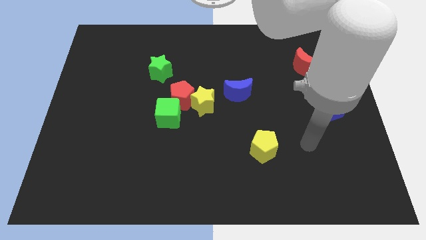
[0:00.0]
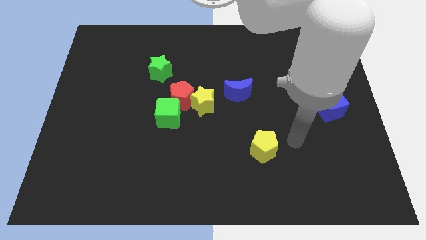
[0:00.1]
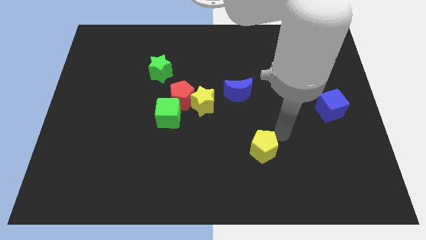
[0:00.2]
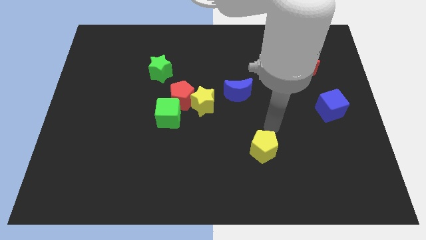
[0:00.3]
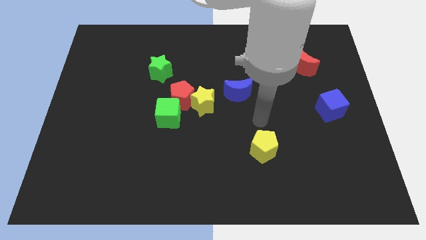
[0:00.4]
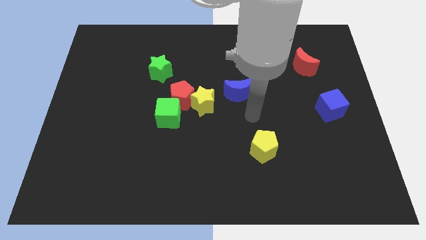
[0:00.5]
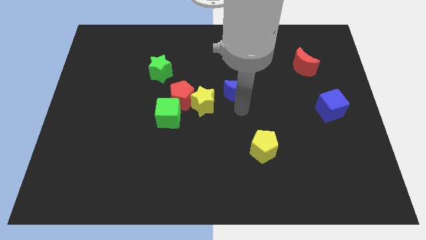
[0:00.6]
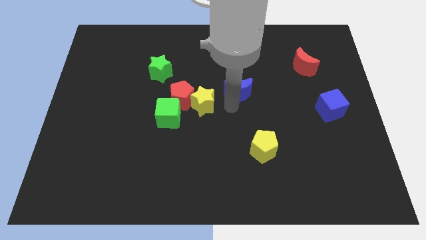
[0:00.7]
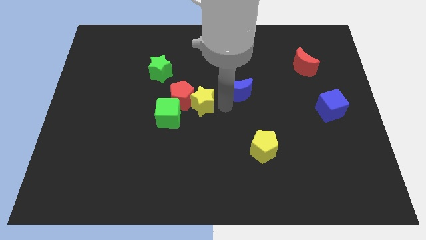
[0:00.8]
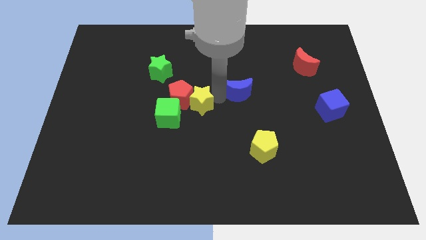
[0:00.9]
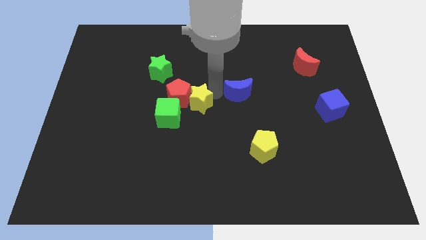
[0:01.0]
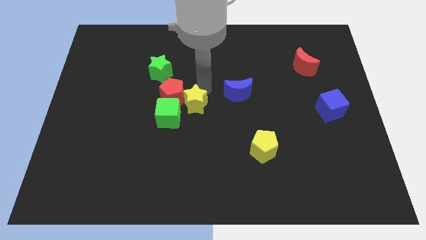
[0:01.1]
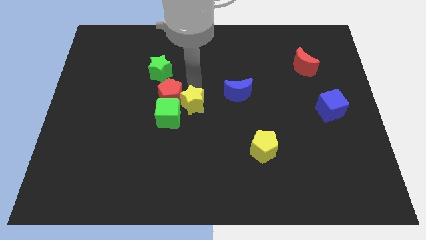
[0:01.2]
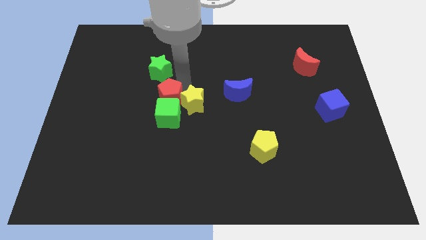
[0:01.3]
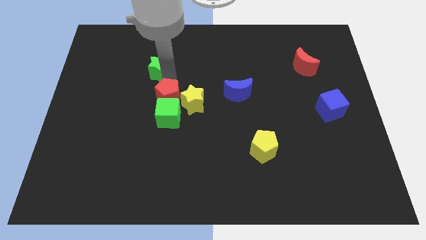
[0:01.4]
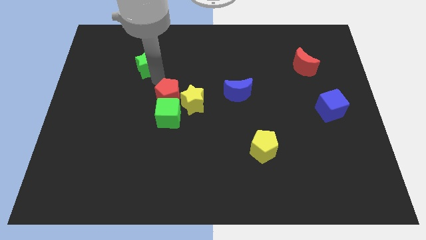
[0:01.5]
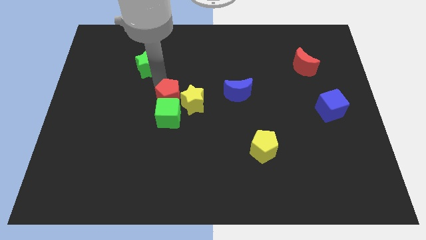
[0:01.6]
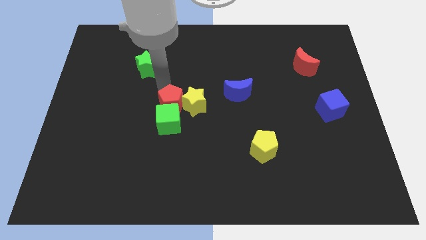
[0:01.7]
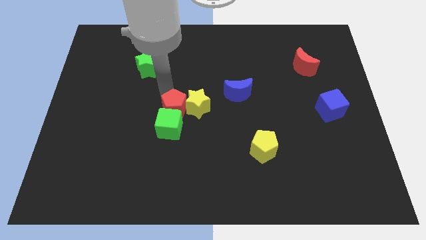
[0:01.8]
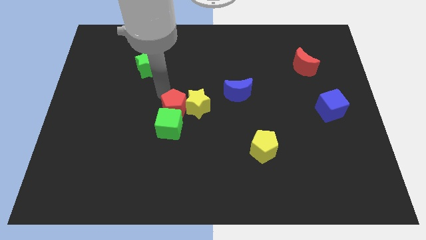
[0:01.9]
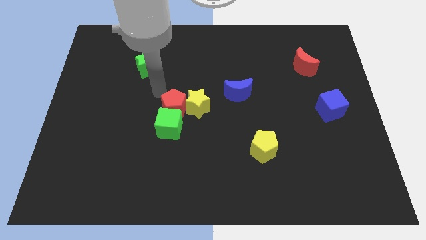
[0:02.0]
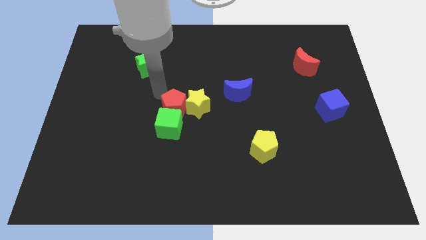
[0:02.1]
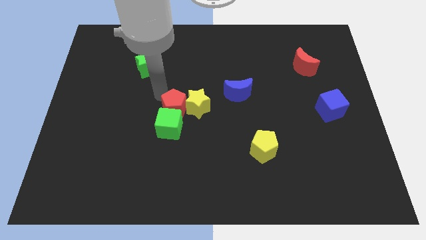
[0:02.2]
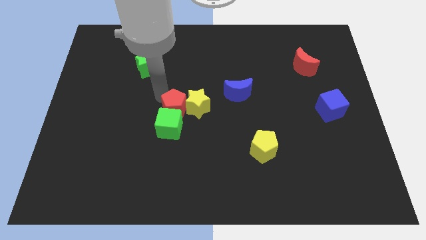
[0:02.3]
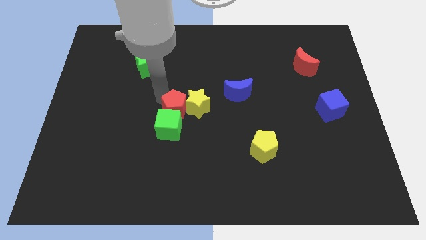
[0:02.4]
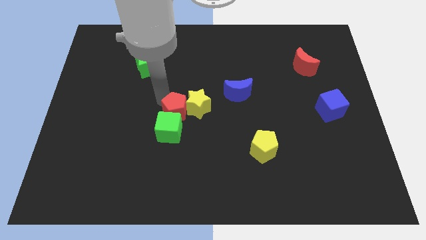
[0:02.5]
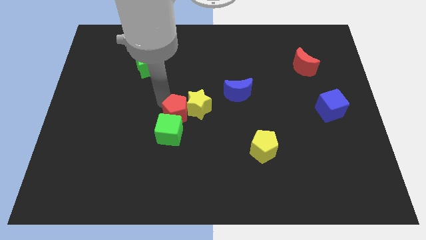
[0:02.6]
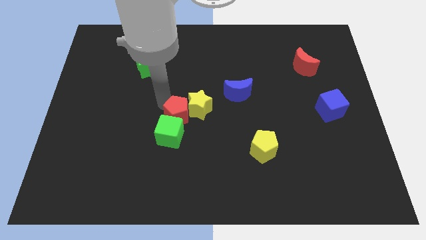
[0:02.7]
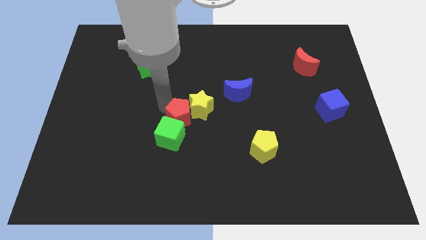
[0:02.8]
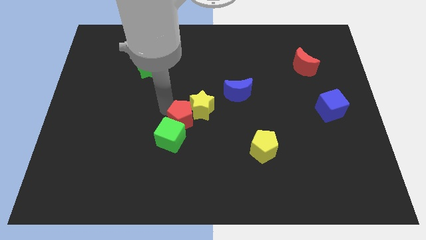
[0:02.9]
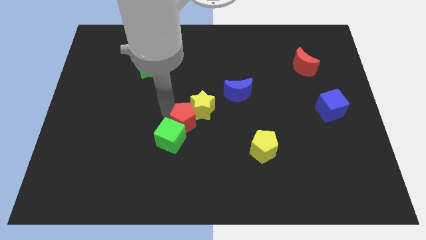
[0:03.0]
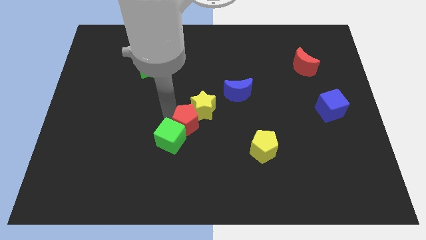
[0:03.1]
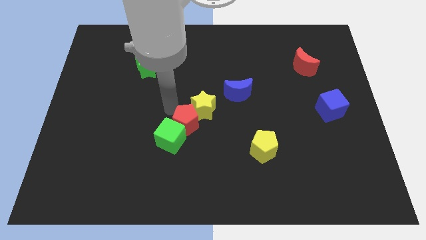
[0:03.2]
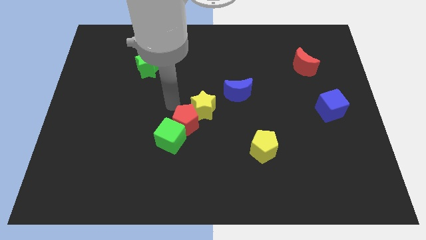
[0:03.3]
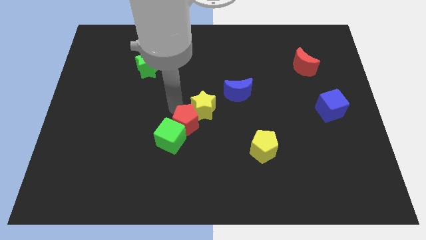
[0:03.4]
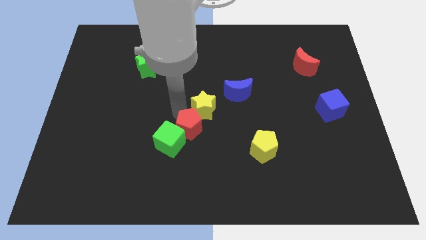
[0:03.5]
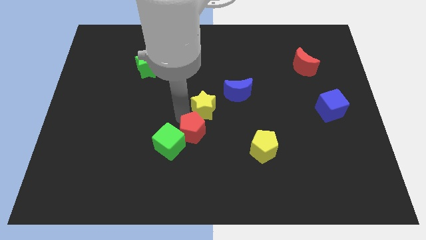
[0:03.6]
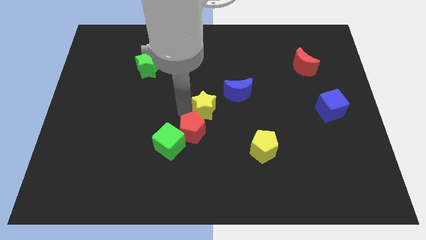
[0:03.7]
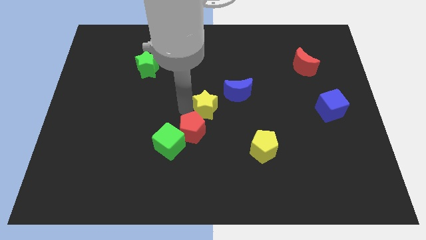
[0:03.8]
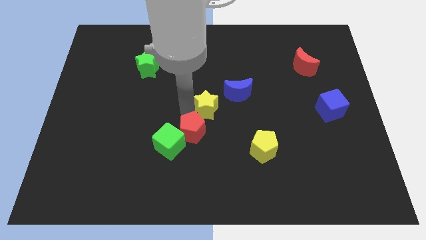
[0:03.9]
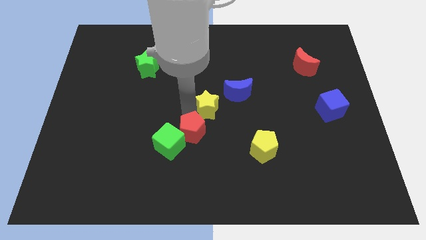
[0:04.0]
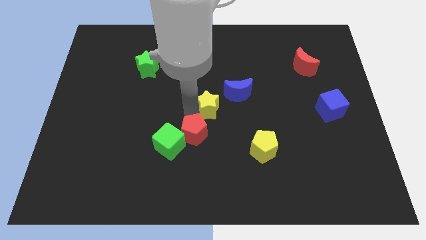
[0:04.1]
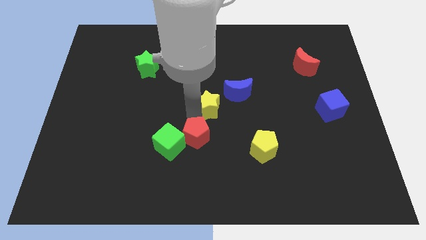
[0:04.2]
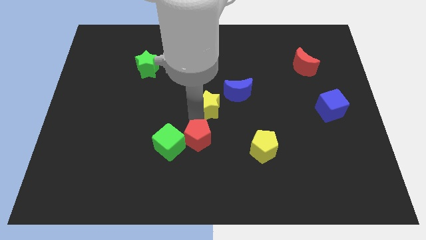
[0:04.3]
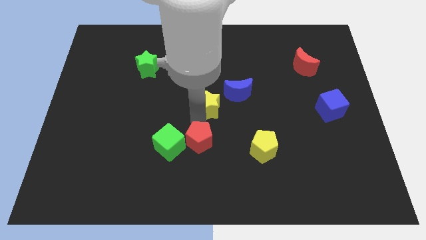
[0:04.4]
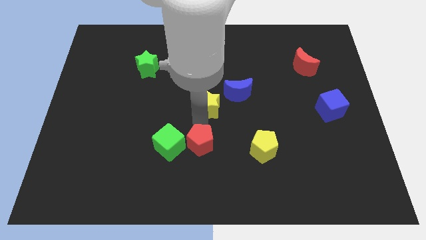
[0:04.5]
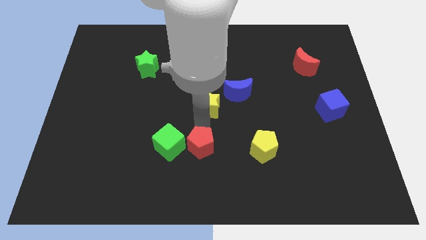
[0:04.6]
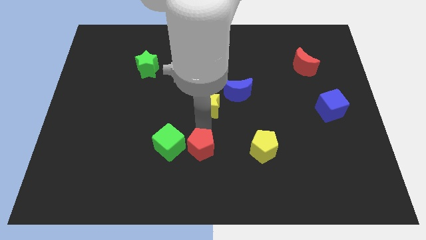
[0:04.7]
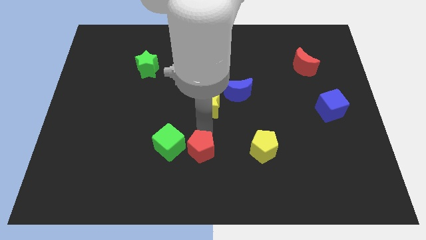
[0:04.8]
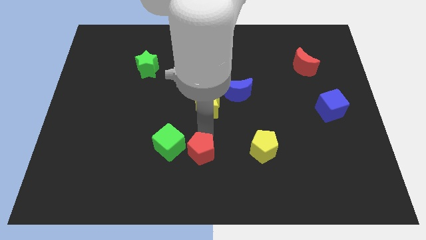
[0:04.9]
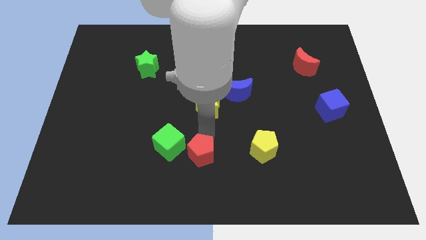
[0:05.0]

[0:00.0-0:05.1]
slide the red pentagon to the bottom side
